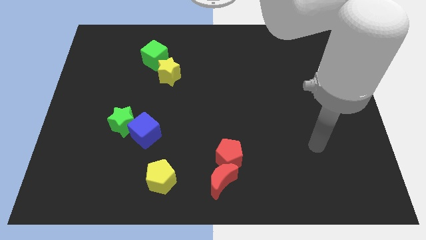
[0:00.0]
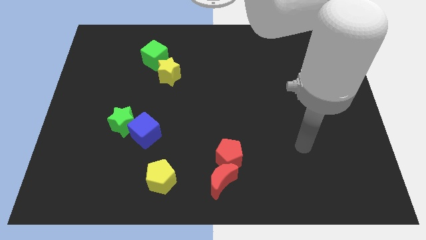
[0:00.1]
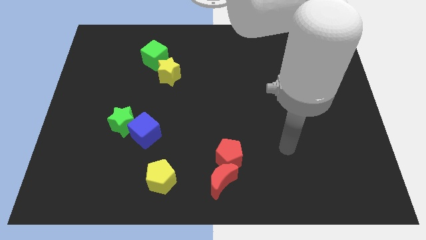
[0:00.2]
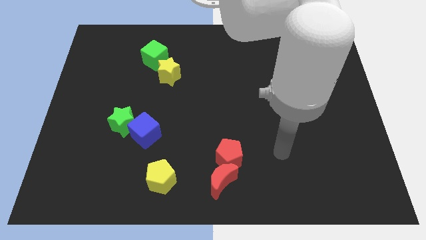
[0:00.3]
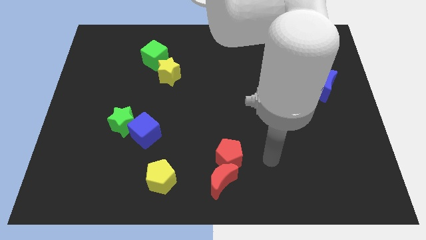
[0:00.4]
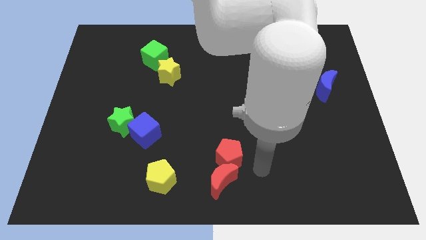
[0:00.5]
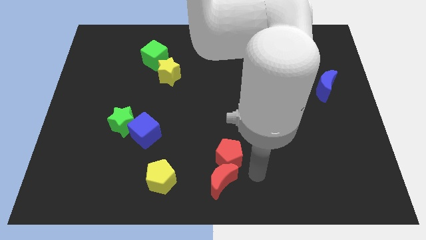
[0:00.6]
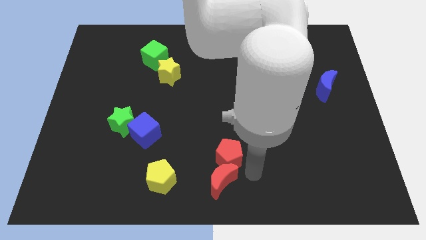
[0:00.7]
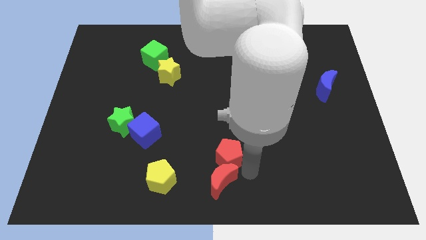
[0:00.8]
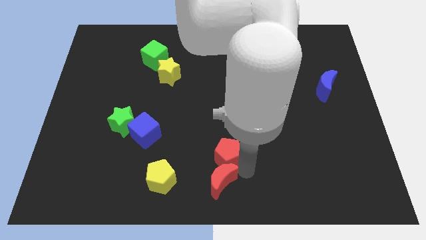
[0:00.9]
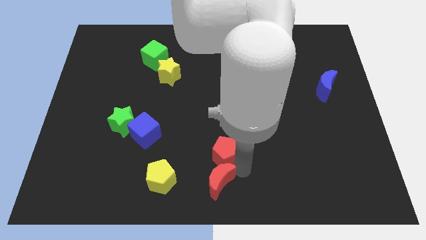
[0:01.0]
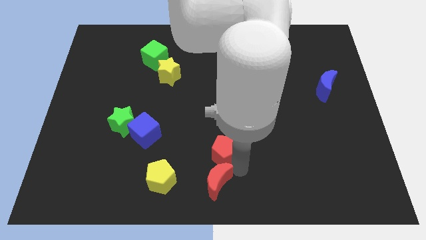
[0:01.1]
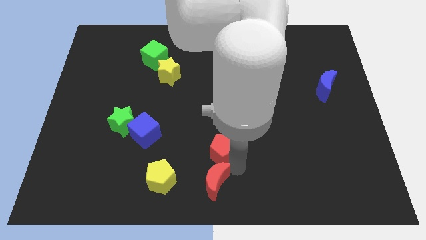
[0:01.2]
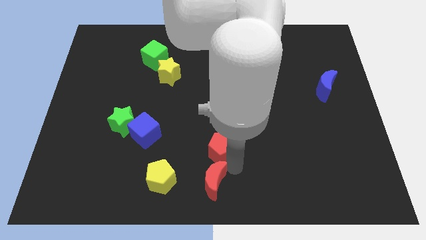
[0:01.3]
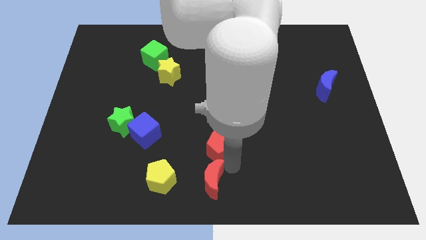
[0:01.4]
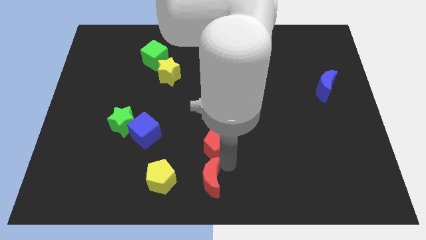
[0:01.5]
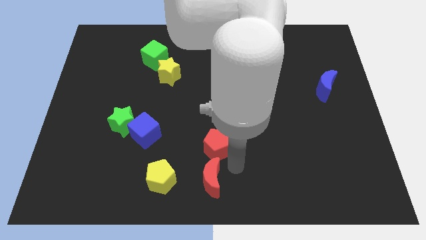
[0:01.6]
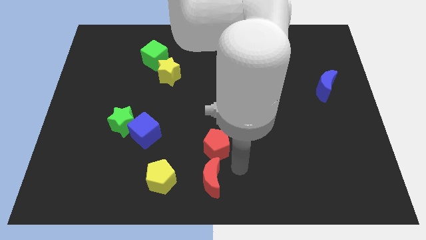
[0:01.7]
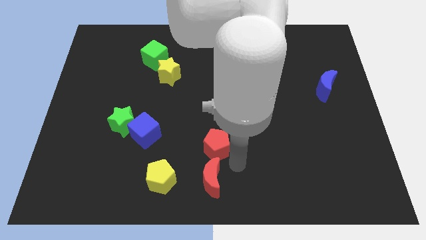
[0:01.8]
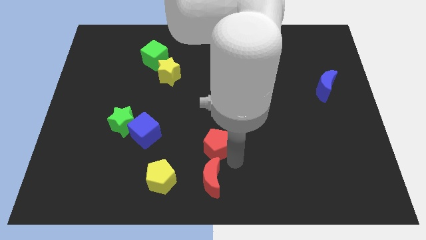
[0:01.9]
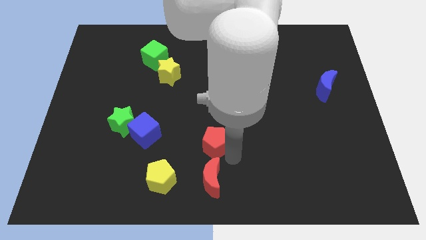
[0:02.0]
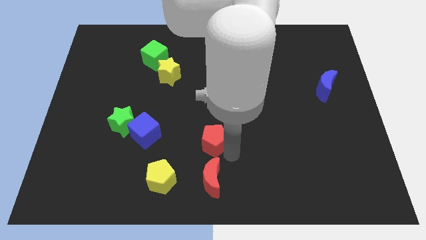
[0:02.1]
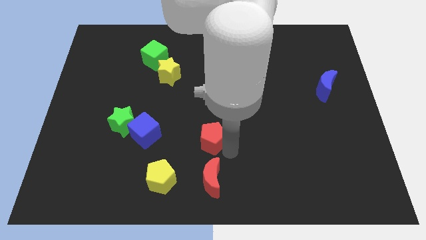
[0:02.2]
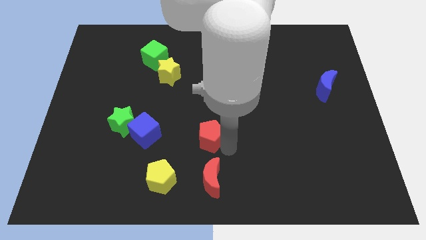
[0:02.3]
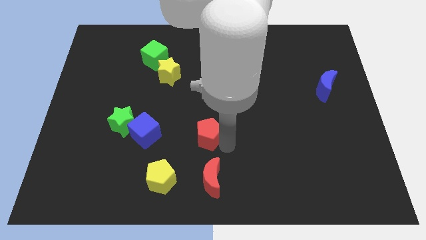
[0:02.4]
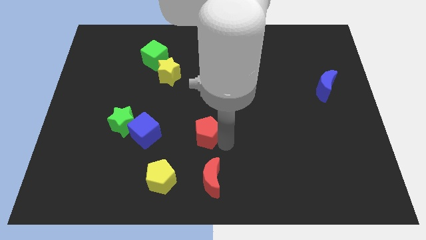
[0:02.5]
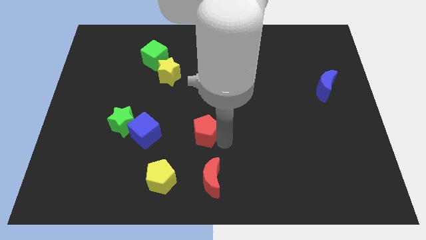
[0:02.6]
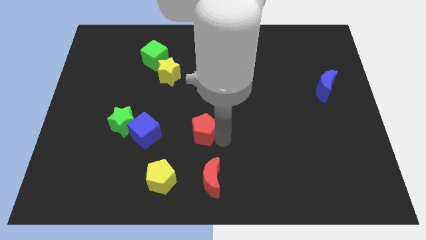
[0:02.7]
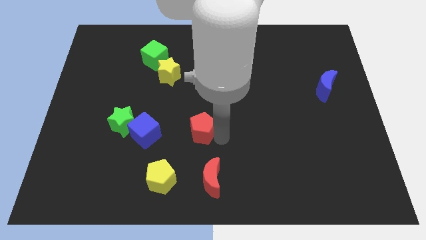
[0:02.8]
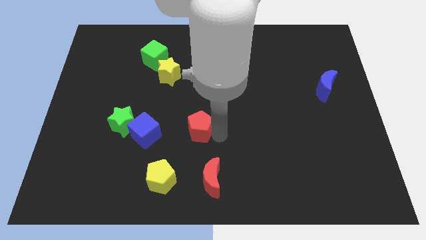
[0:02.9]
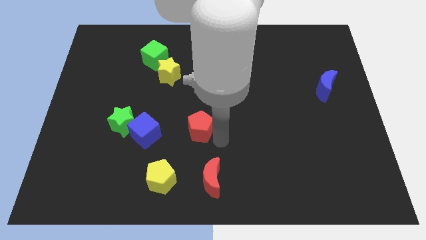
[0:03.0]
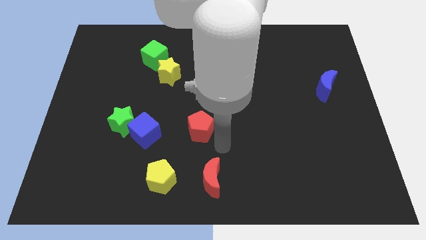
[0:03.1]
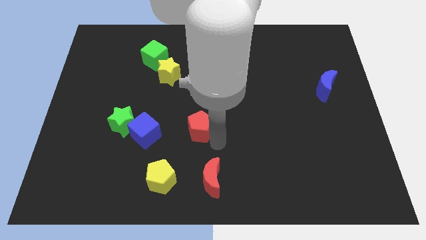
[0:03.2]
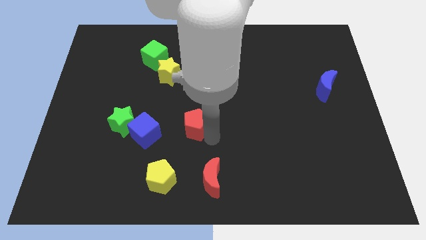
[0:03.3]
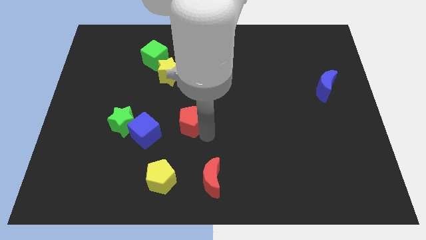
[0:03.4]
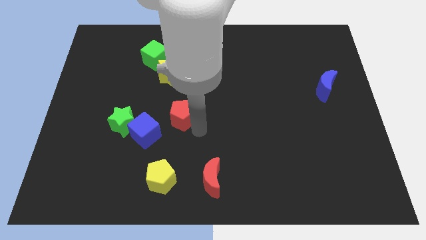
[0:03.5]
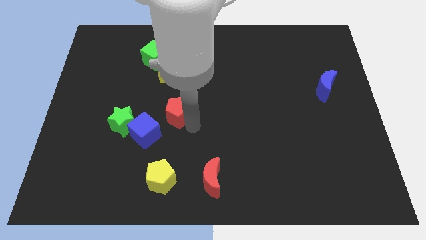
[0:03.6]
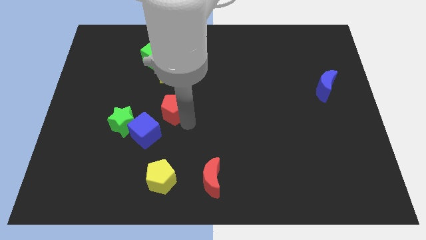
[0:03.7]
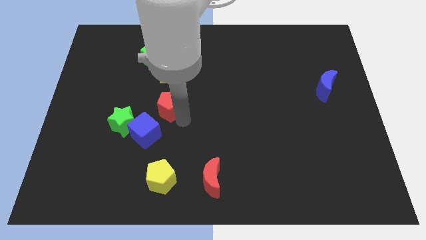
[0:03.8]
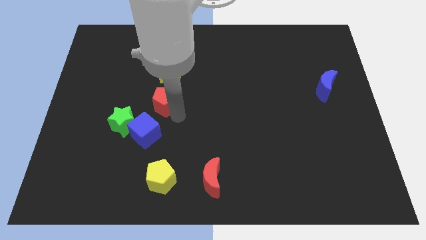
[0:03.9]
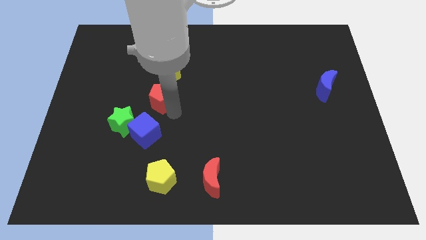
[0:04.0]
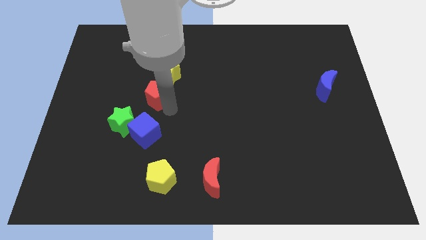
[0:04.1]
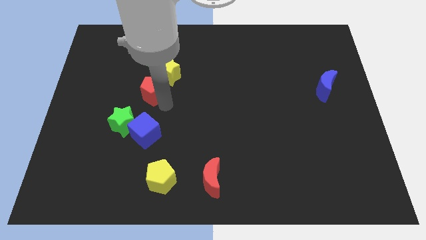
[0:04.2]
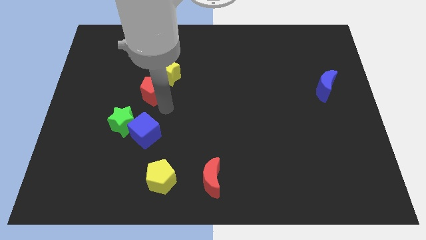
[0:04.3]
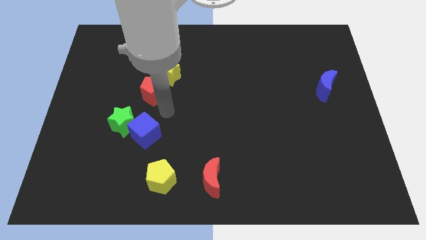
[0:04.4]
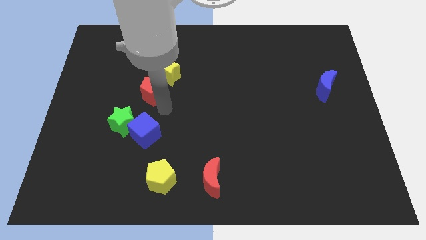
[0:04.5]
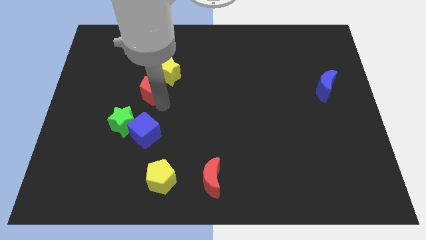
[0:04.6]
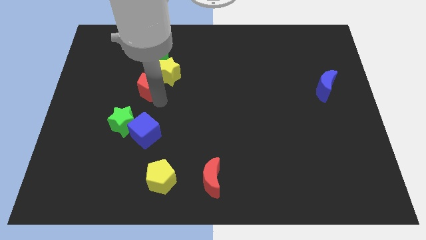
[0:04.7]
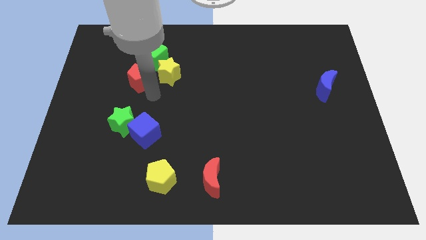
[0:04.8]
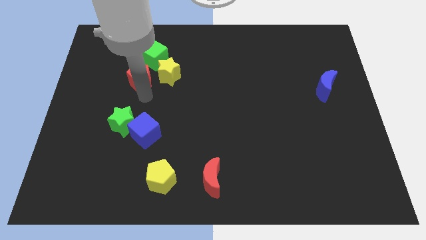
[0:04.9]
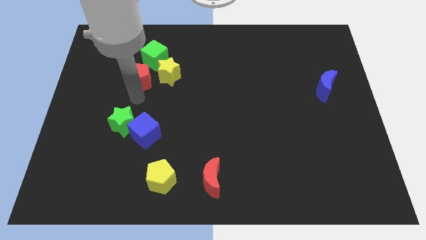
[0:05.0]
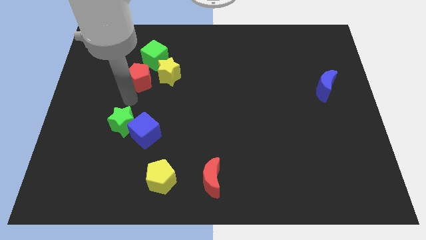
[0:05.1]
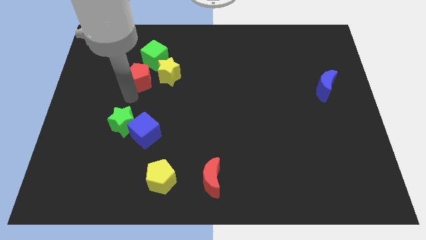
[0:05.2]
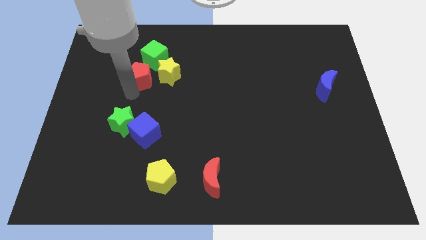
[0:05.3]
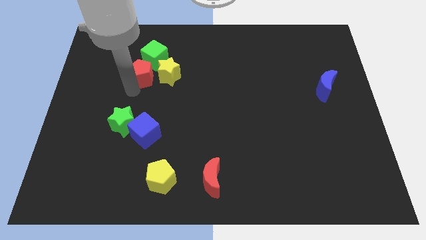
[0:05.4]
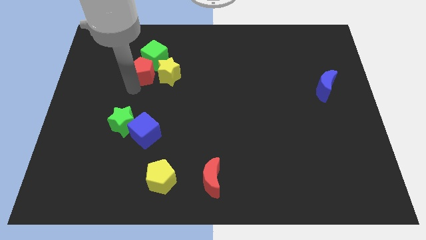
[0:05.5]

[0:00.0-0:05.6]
slide the red pentagon close to the green cube

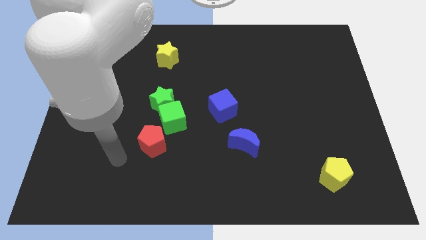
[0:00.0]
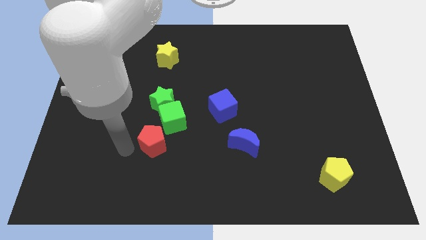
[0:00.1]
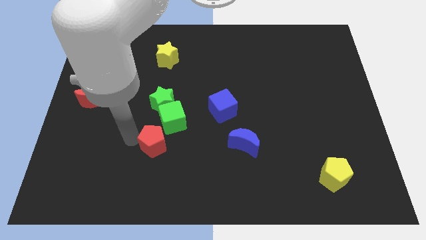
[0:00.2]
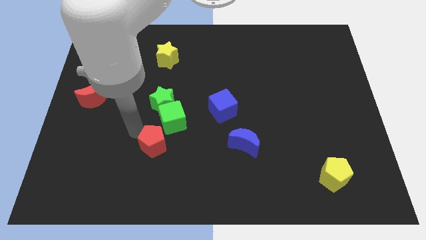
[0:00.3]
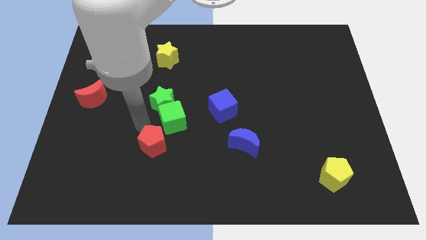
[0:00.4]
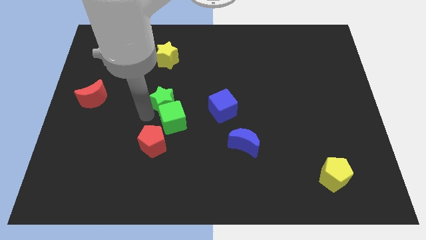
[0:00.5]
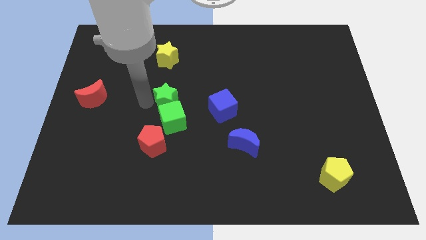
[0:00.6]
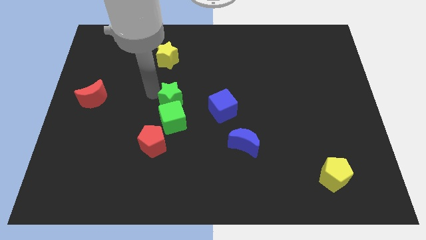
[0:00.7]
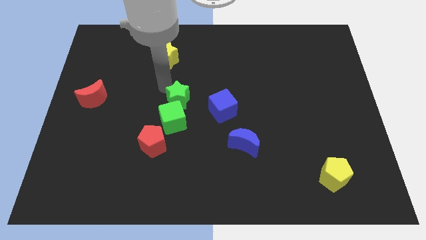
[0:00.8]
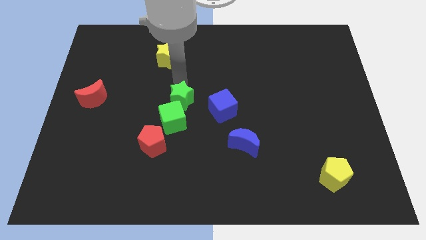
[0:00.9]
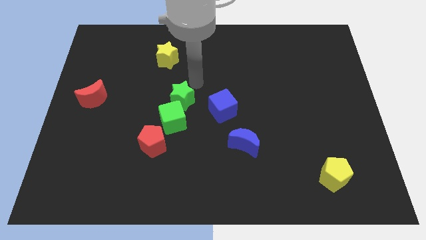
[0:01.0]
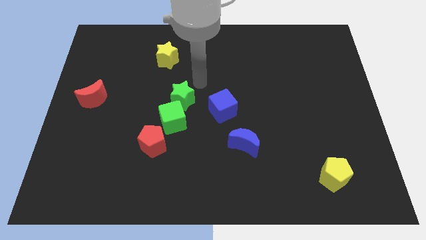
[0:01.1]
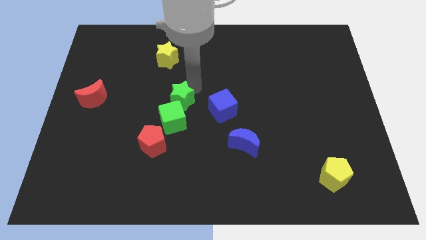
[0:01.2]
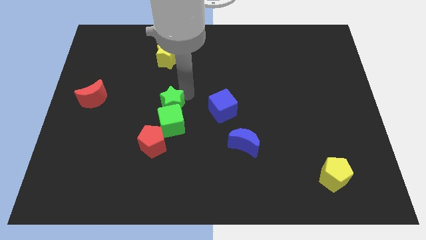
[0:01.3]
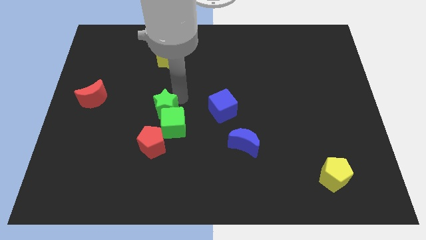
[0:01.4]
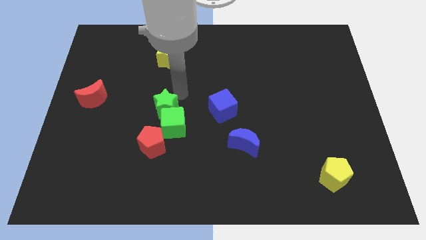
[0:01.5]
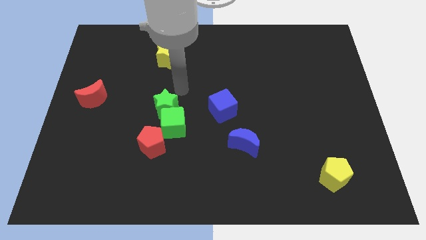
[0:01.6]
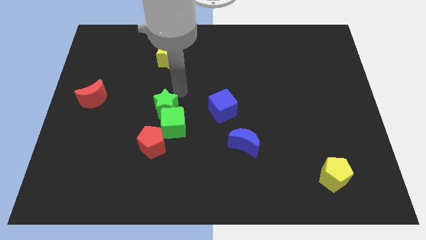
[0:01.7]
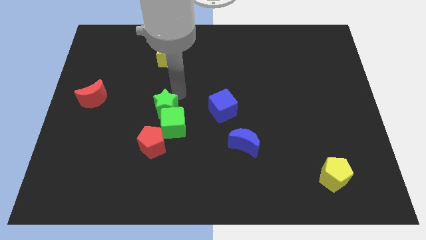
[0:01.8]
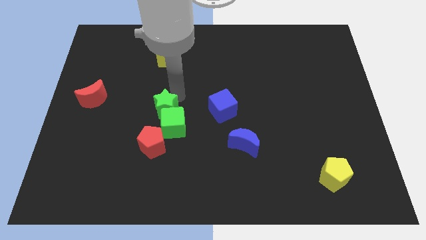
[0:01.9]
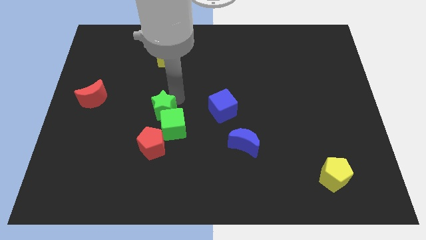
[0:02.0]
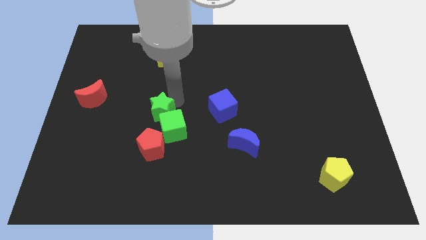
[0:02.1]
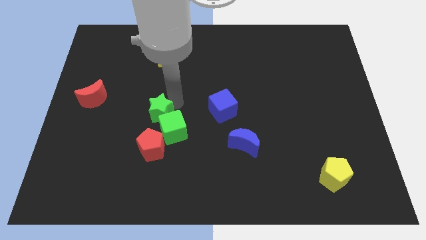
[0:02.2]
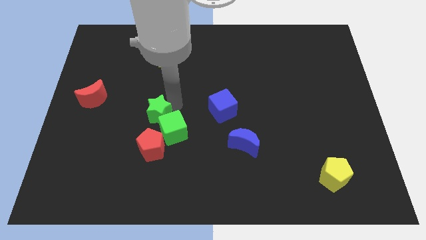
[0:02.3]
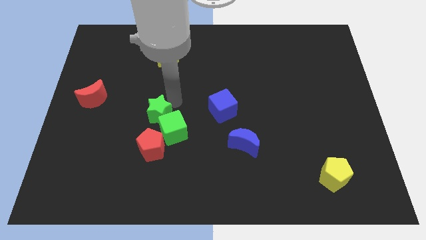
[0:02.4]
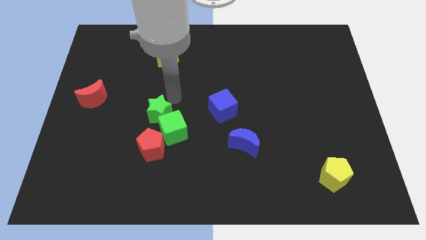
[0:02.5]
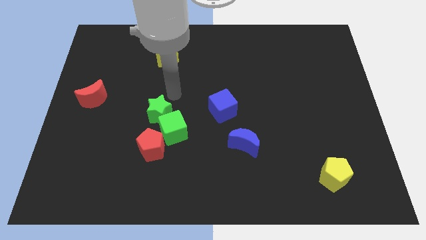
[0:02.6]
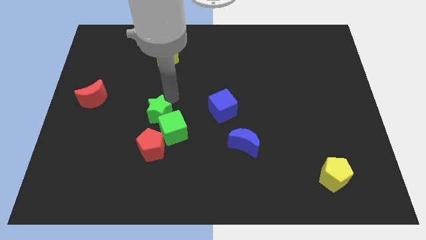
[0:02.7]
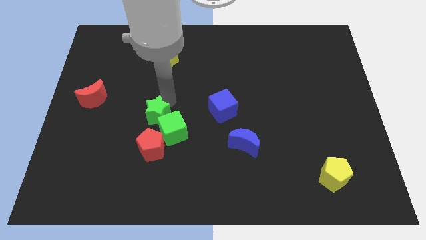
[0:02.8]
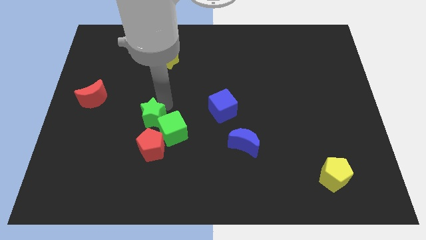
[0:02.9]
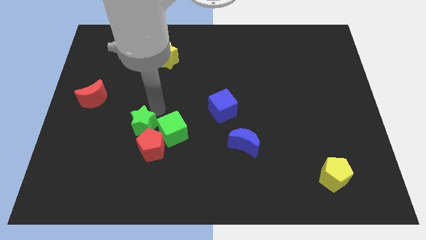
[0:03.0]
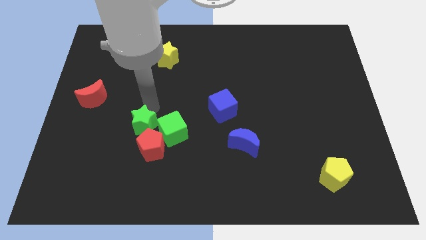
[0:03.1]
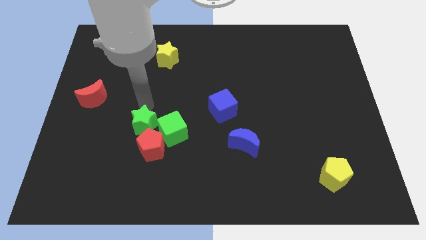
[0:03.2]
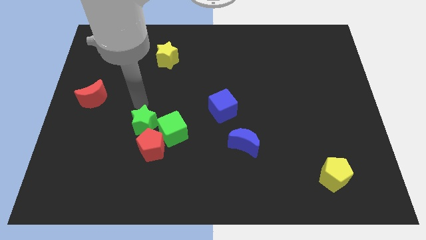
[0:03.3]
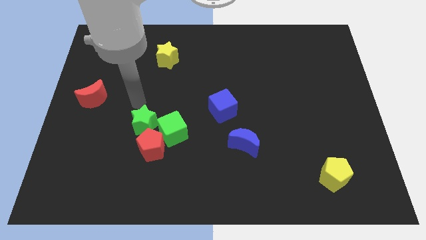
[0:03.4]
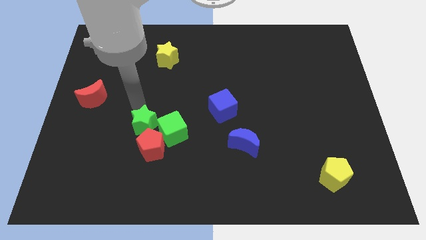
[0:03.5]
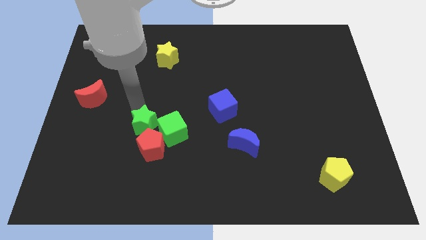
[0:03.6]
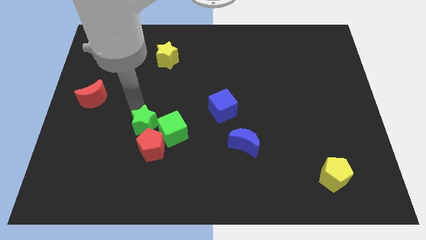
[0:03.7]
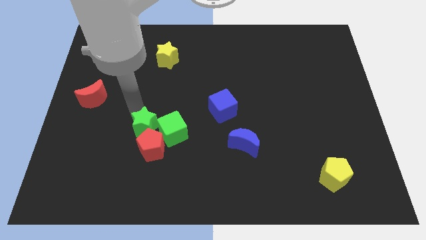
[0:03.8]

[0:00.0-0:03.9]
push the green star next to the red pentagon
